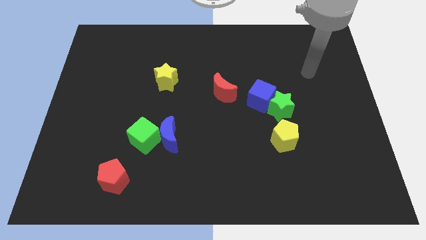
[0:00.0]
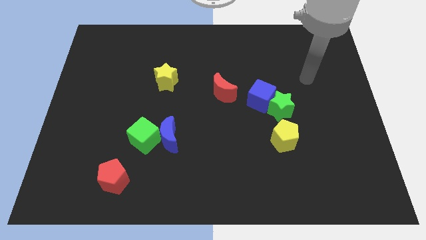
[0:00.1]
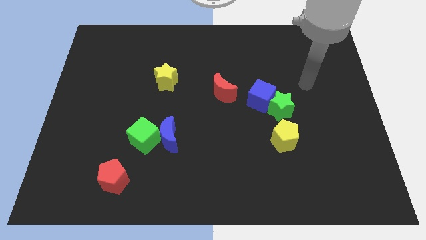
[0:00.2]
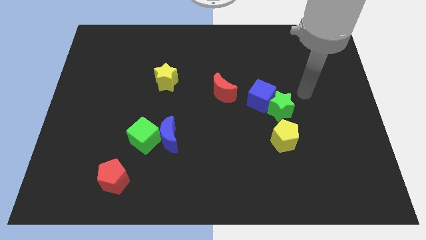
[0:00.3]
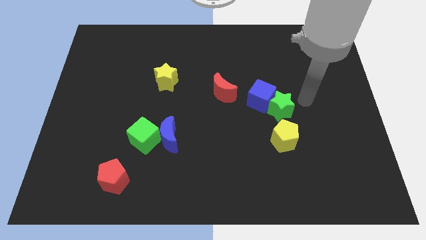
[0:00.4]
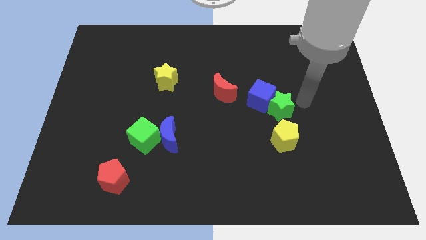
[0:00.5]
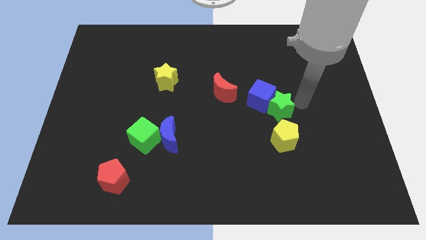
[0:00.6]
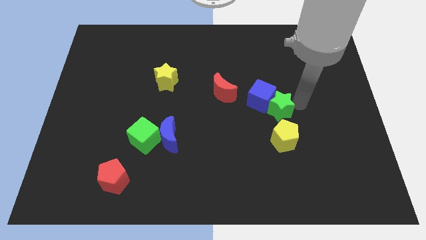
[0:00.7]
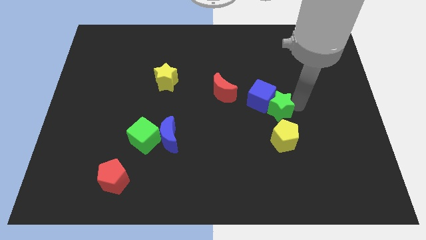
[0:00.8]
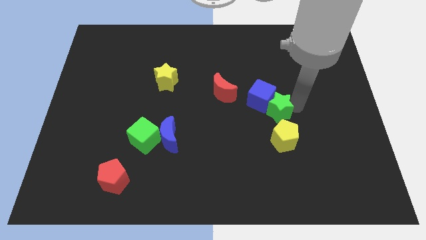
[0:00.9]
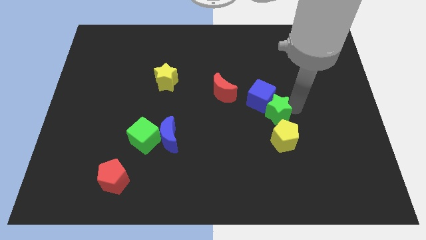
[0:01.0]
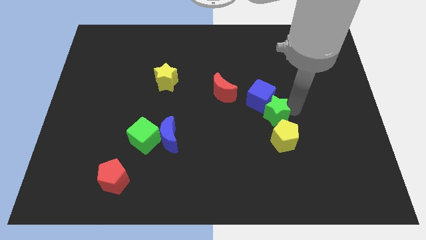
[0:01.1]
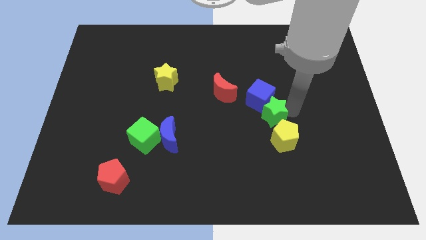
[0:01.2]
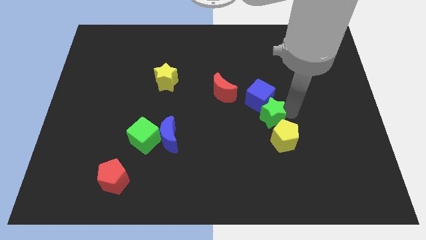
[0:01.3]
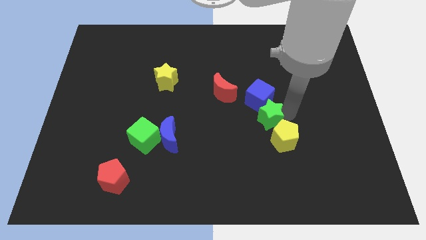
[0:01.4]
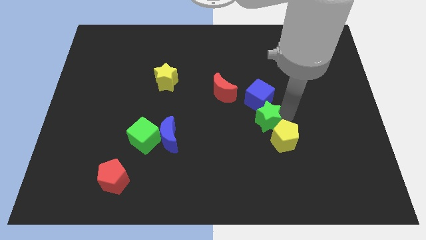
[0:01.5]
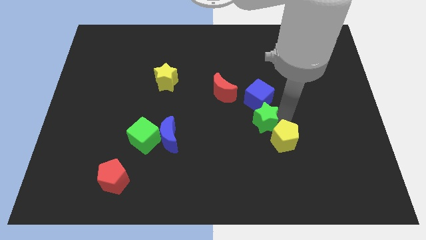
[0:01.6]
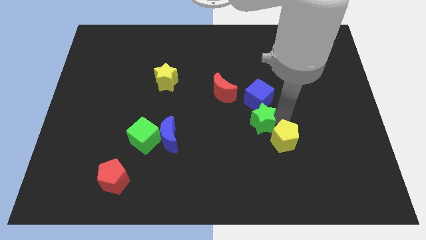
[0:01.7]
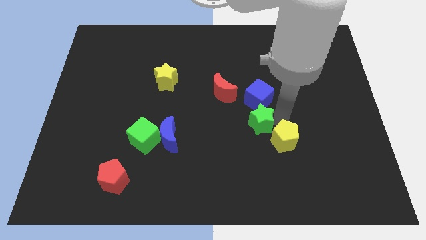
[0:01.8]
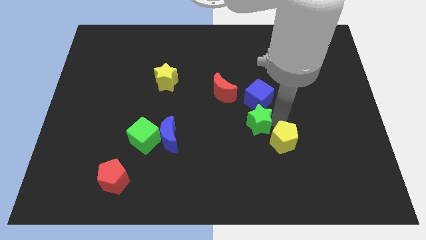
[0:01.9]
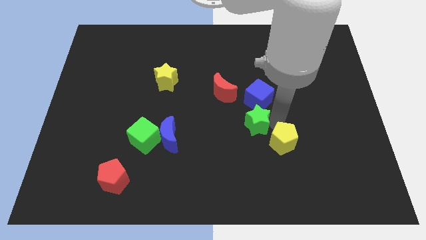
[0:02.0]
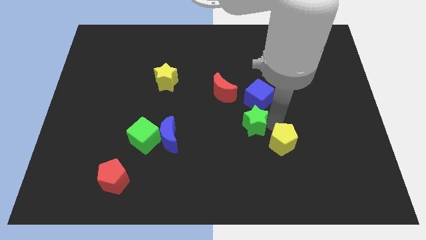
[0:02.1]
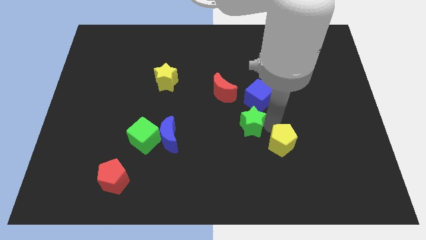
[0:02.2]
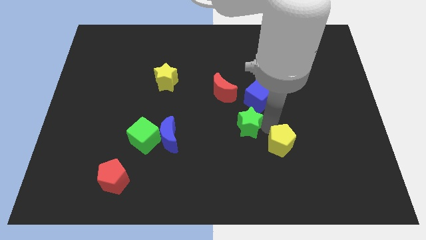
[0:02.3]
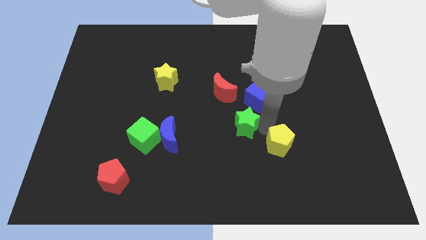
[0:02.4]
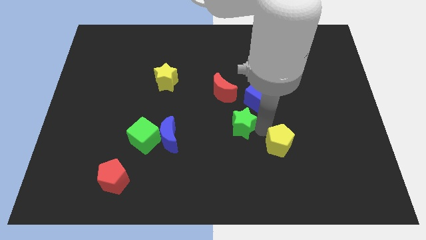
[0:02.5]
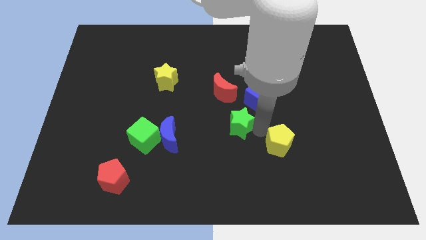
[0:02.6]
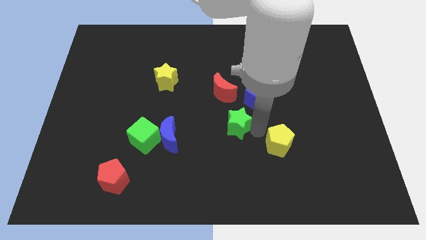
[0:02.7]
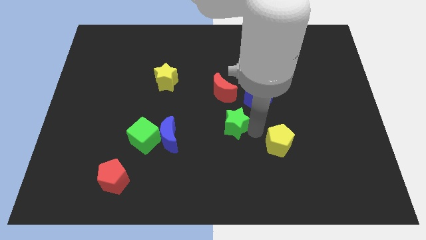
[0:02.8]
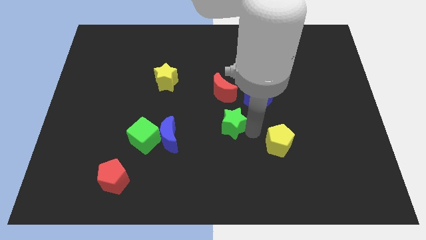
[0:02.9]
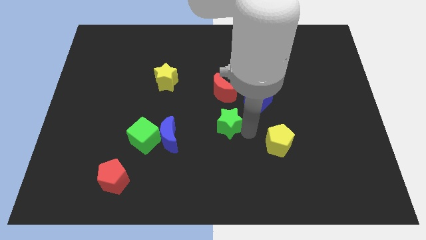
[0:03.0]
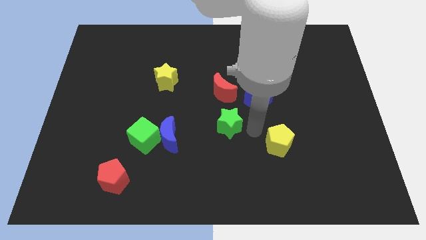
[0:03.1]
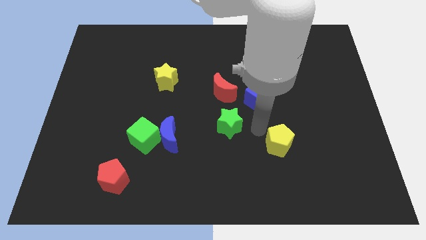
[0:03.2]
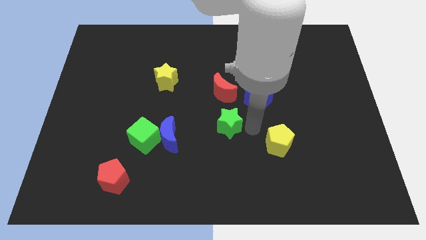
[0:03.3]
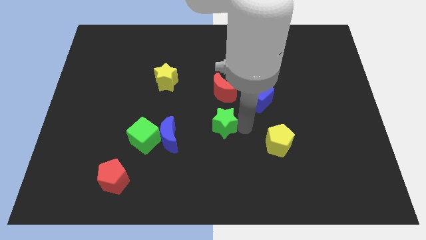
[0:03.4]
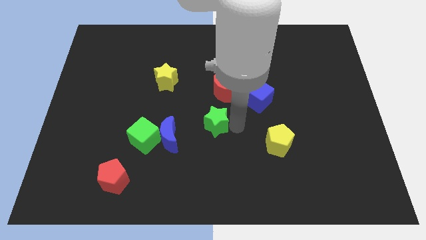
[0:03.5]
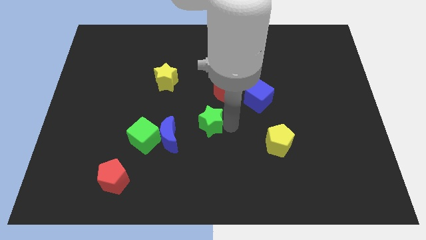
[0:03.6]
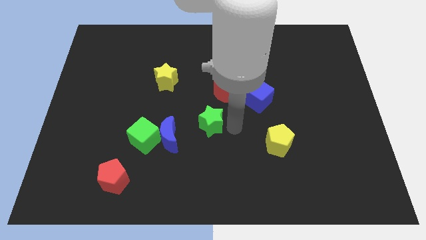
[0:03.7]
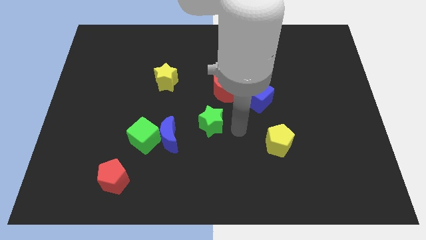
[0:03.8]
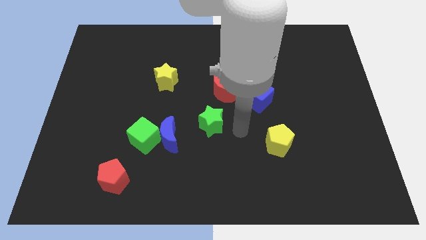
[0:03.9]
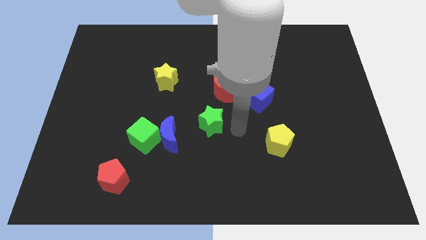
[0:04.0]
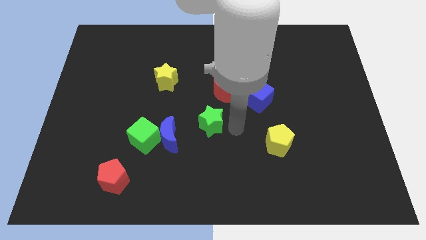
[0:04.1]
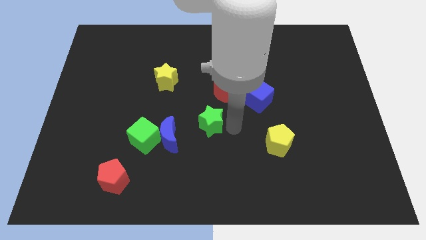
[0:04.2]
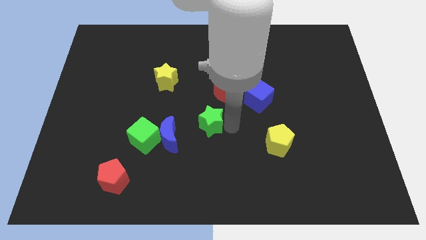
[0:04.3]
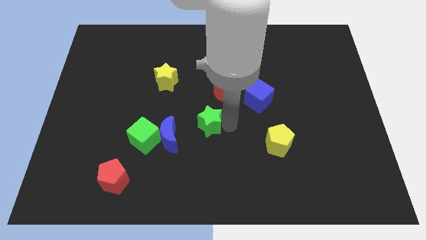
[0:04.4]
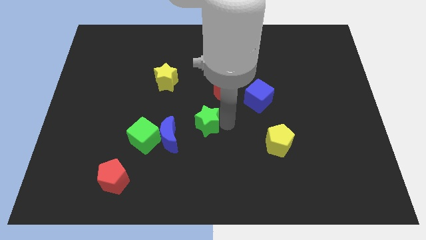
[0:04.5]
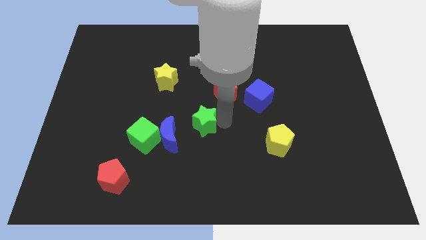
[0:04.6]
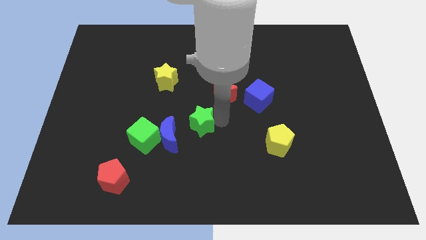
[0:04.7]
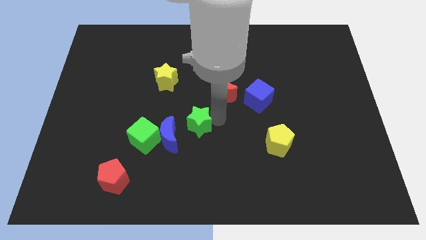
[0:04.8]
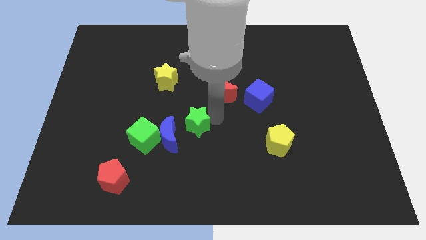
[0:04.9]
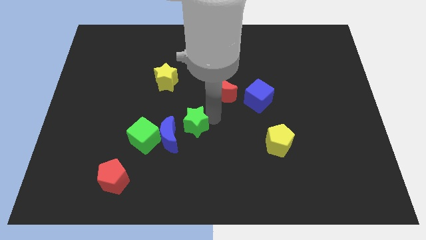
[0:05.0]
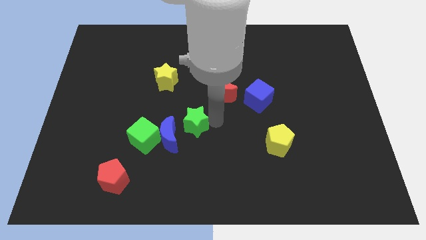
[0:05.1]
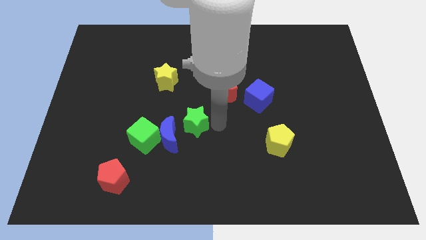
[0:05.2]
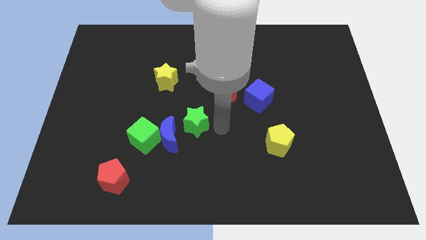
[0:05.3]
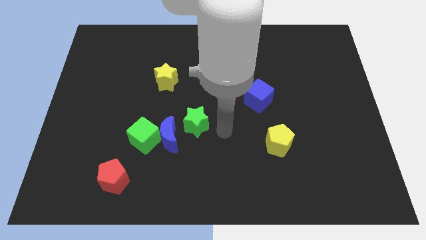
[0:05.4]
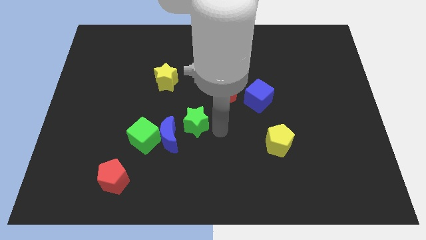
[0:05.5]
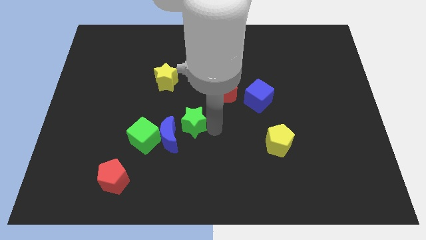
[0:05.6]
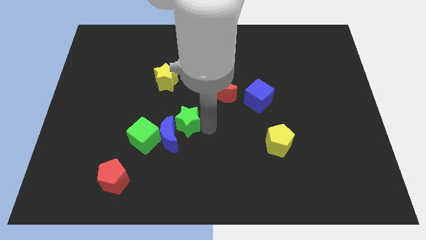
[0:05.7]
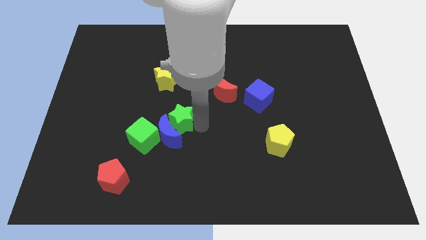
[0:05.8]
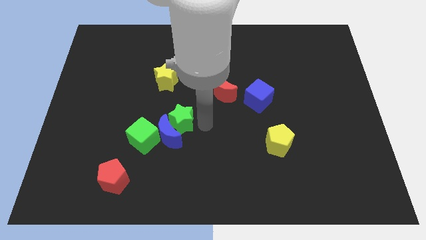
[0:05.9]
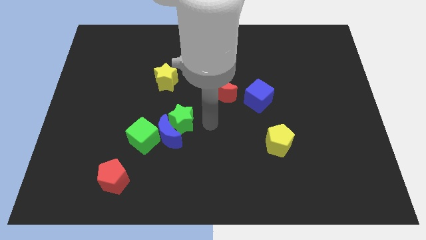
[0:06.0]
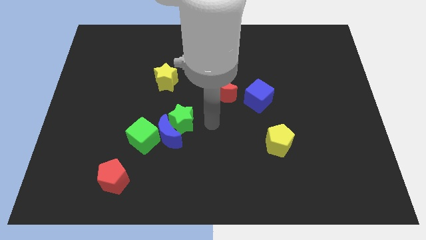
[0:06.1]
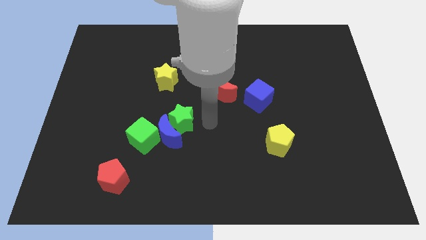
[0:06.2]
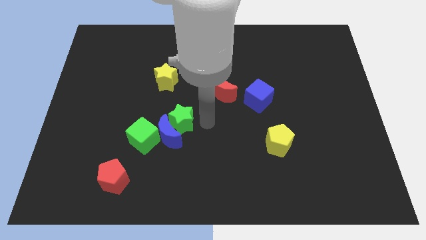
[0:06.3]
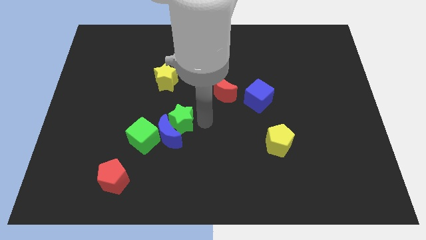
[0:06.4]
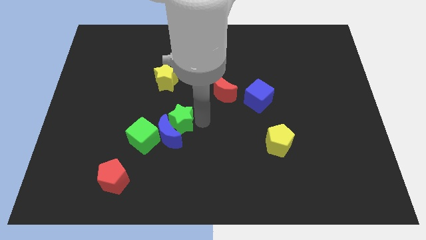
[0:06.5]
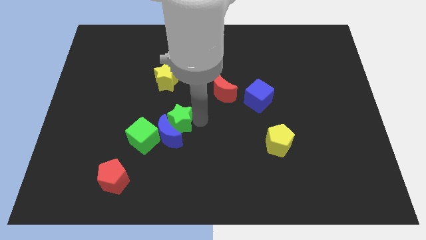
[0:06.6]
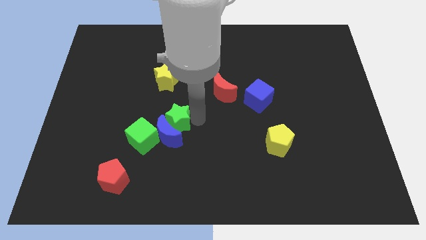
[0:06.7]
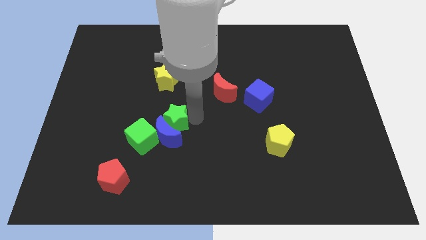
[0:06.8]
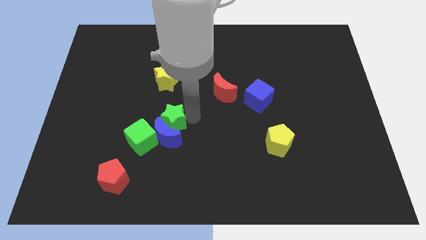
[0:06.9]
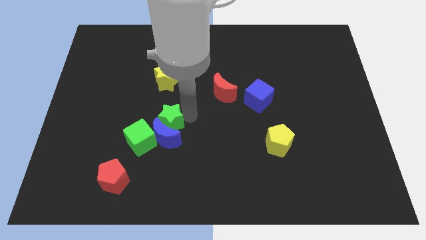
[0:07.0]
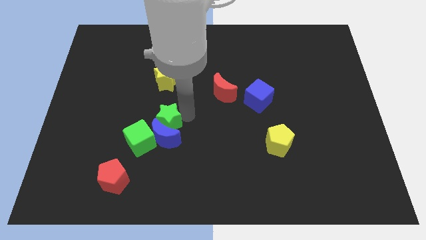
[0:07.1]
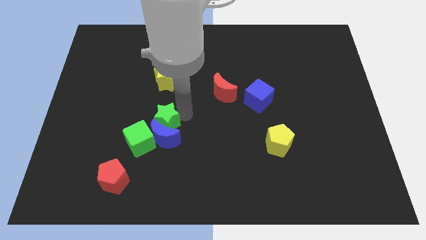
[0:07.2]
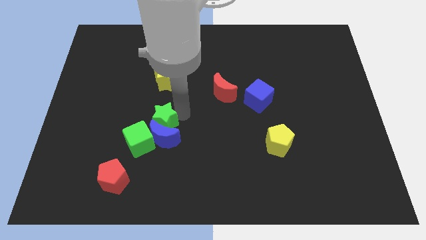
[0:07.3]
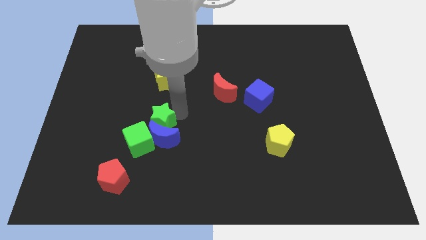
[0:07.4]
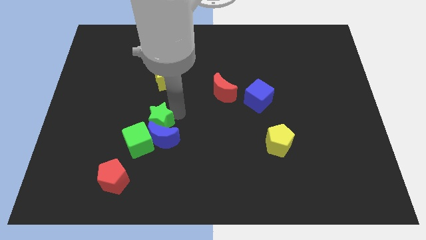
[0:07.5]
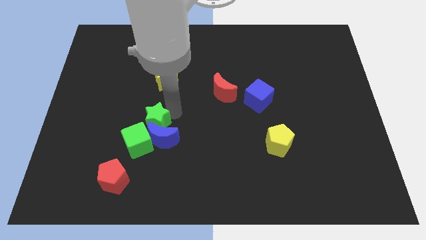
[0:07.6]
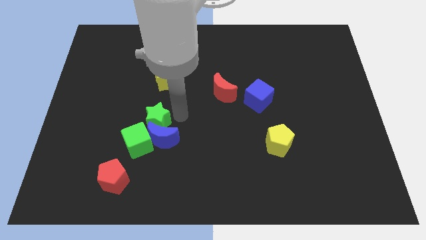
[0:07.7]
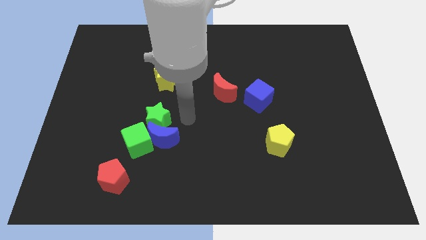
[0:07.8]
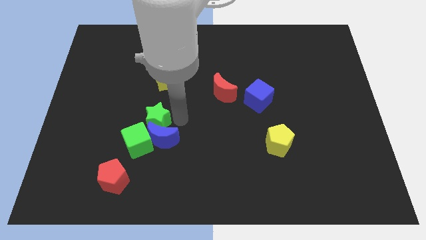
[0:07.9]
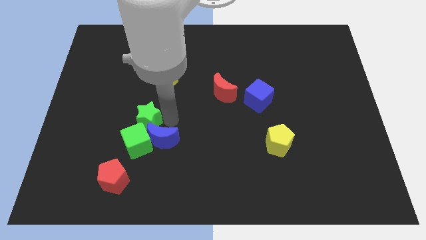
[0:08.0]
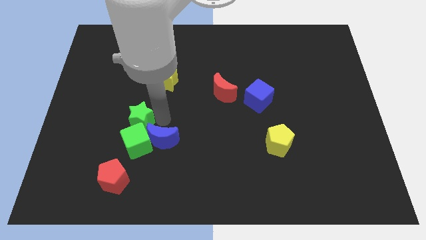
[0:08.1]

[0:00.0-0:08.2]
move the green star to the top left side of the green cube
